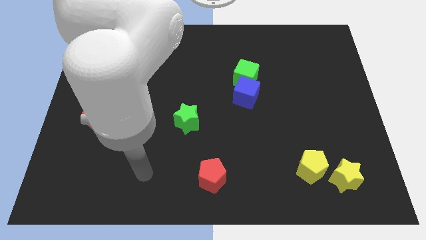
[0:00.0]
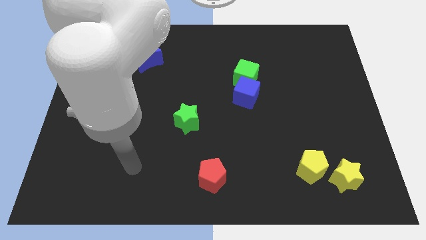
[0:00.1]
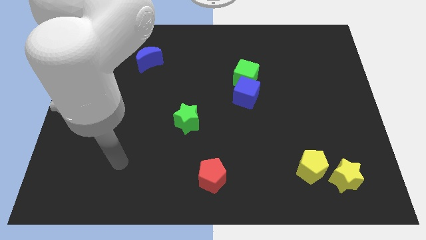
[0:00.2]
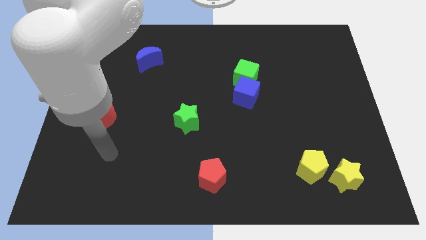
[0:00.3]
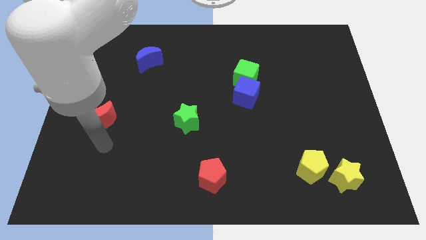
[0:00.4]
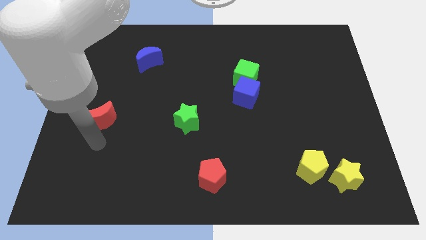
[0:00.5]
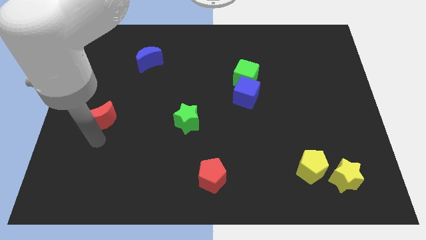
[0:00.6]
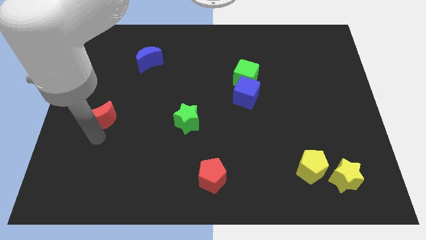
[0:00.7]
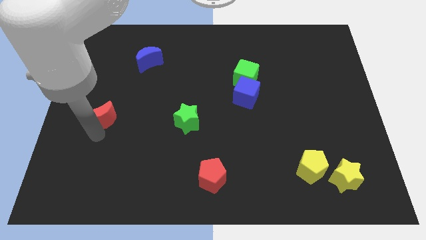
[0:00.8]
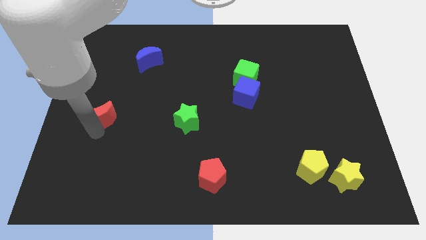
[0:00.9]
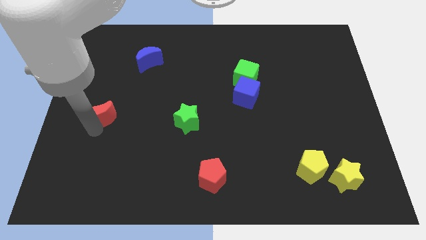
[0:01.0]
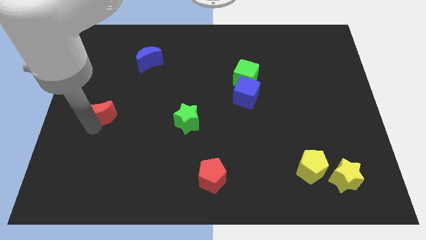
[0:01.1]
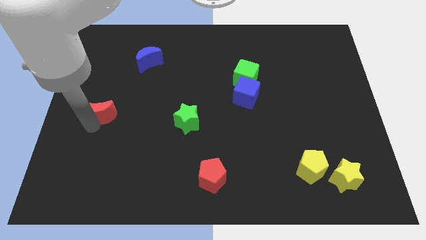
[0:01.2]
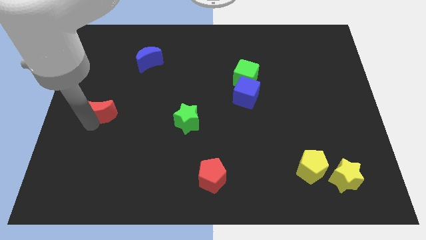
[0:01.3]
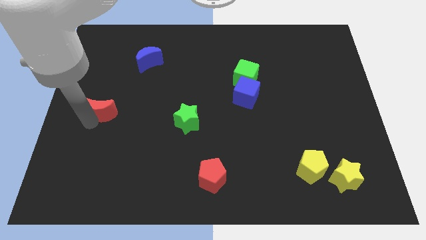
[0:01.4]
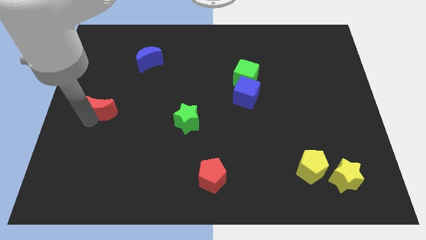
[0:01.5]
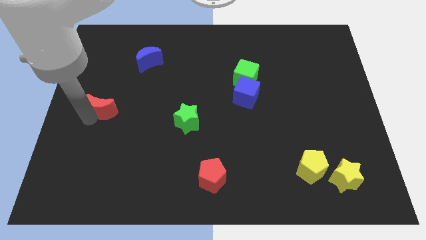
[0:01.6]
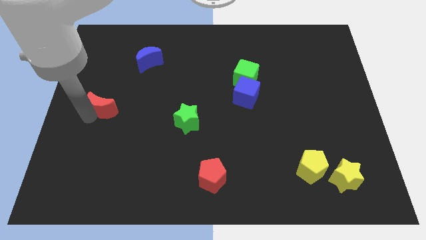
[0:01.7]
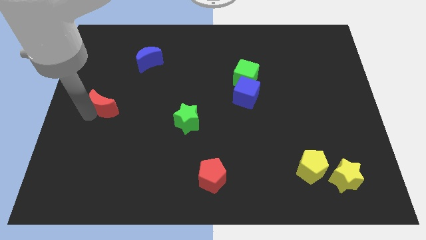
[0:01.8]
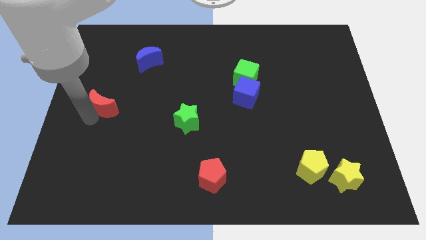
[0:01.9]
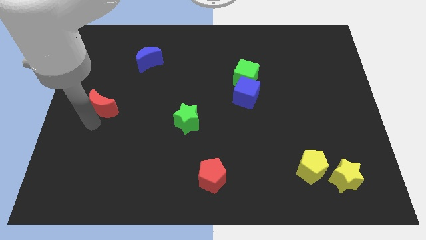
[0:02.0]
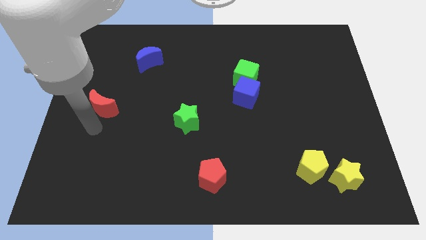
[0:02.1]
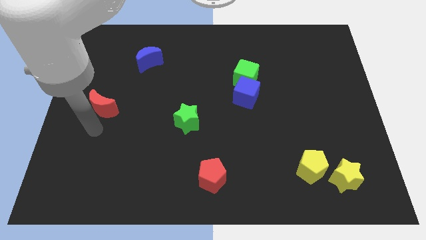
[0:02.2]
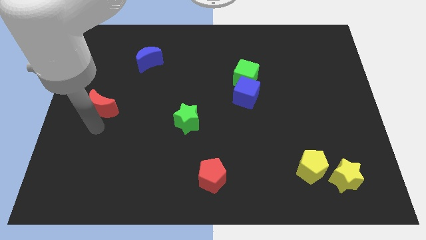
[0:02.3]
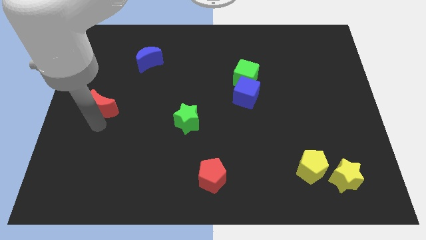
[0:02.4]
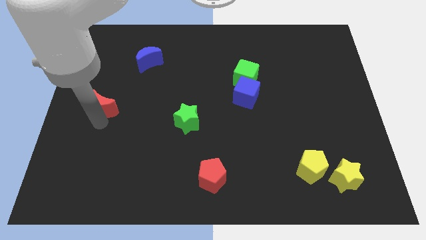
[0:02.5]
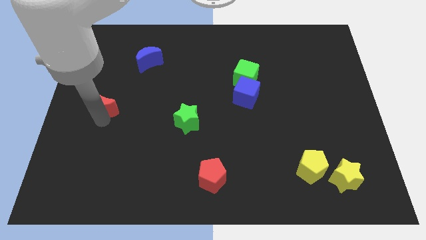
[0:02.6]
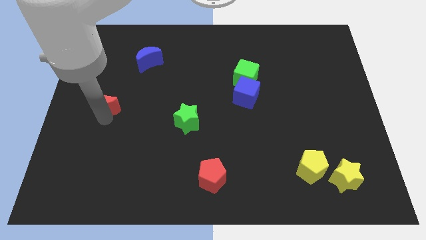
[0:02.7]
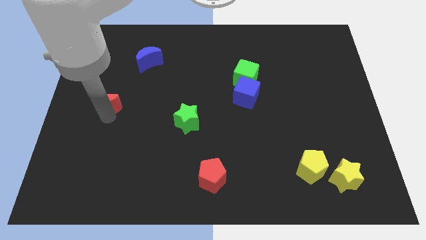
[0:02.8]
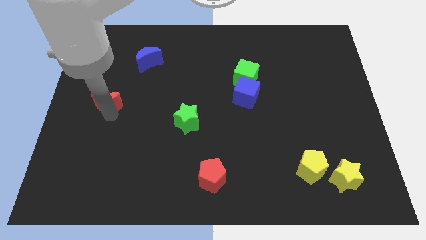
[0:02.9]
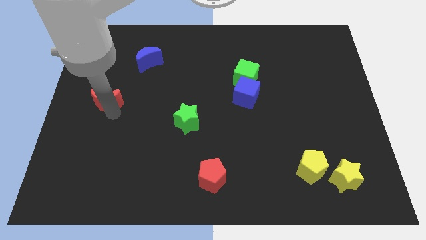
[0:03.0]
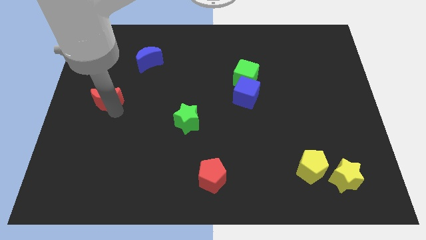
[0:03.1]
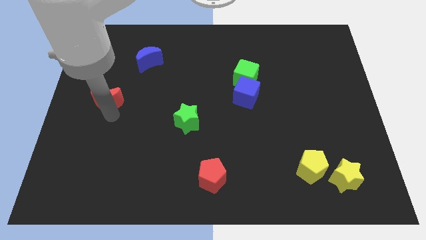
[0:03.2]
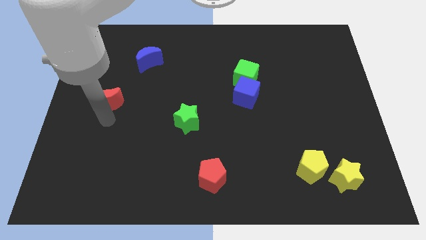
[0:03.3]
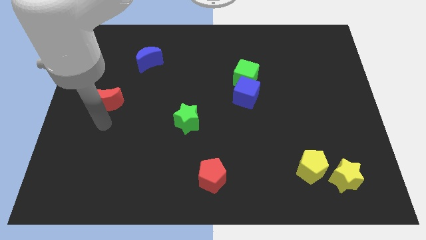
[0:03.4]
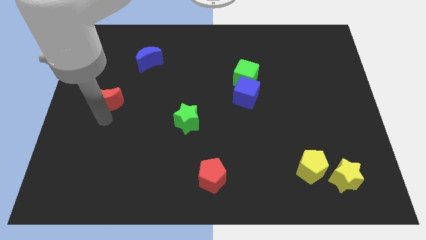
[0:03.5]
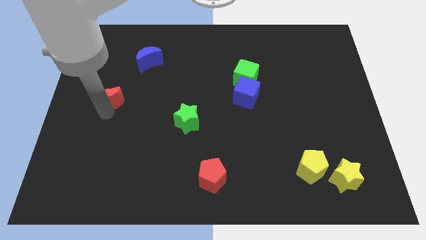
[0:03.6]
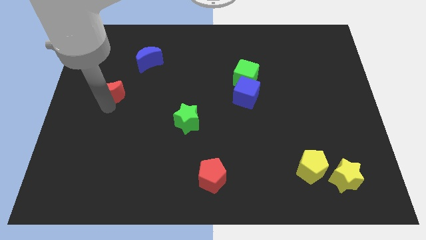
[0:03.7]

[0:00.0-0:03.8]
slide the red moon slightly upwards

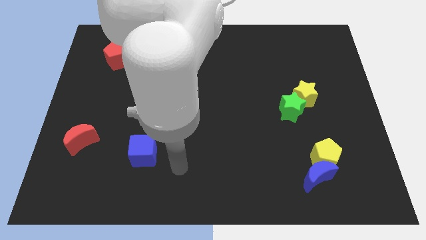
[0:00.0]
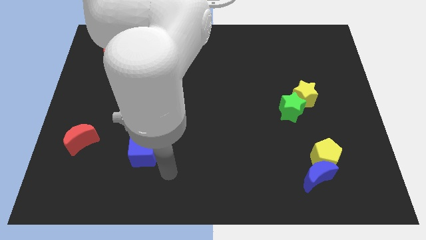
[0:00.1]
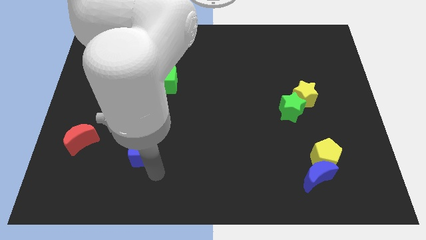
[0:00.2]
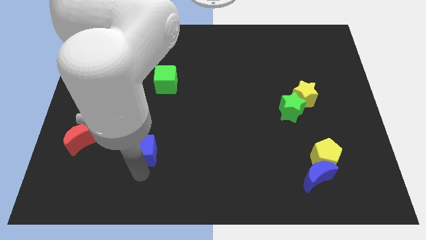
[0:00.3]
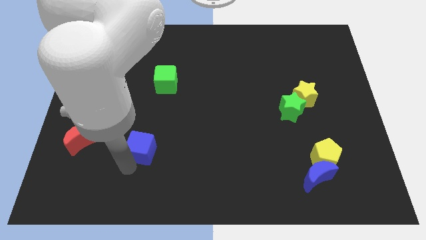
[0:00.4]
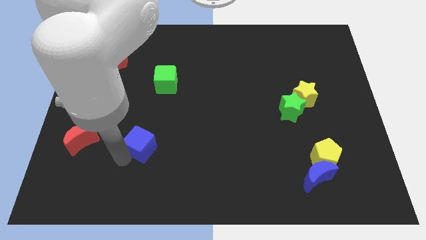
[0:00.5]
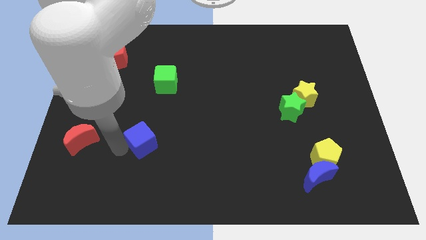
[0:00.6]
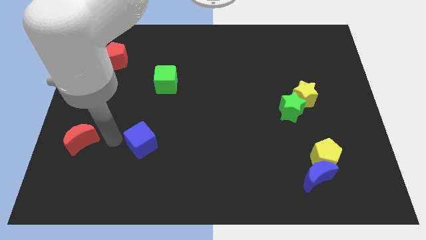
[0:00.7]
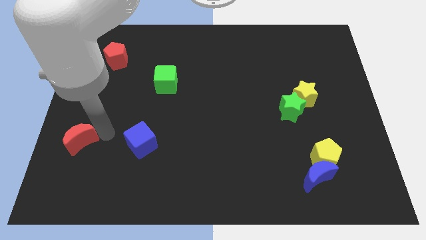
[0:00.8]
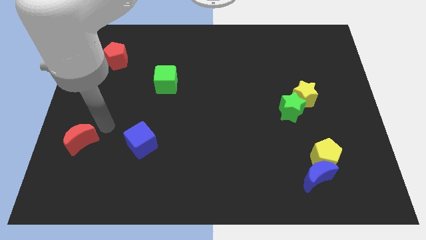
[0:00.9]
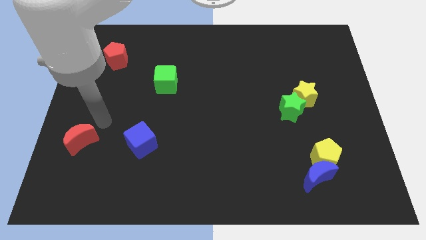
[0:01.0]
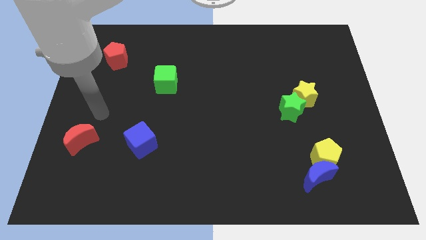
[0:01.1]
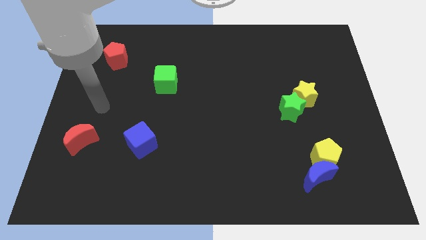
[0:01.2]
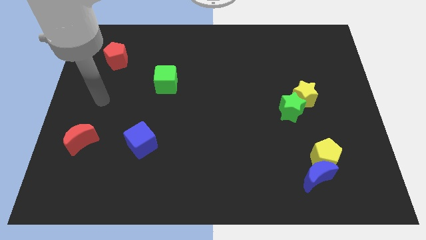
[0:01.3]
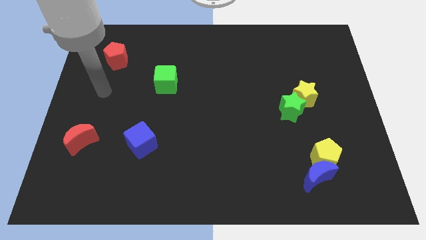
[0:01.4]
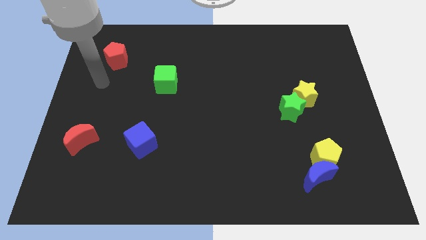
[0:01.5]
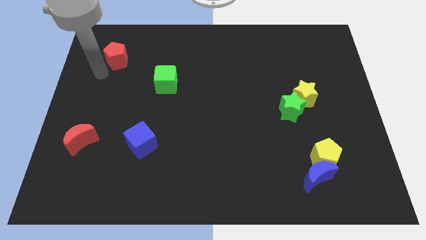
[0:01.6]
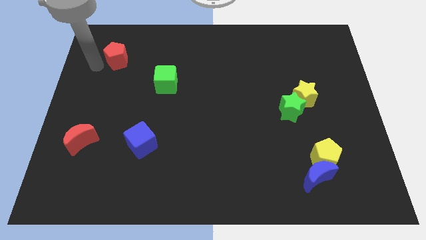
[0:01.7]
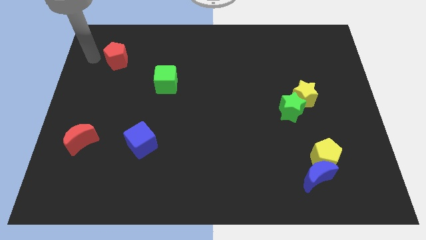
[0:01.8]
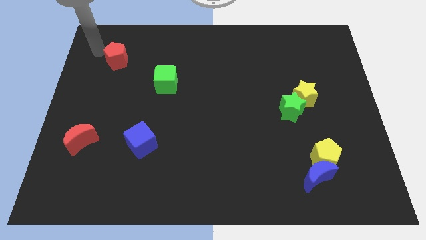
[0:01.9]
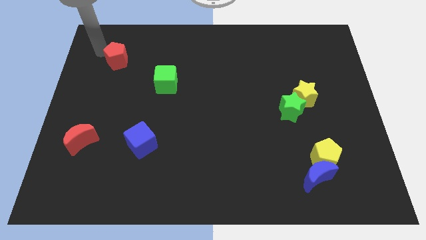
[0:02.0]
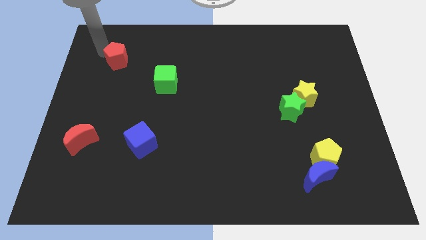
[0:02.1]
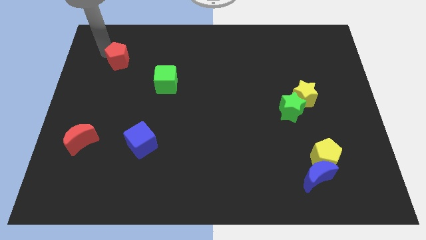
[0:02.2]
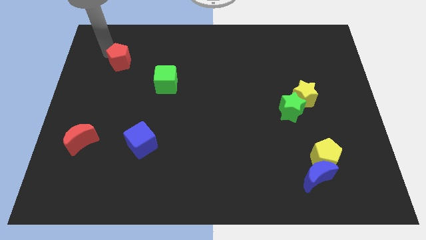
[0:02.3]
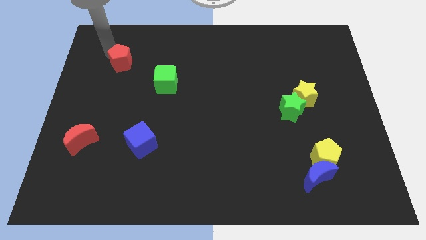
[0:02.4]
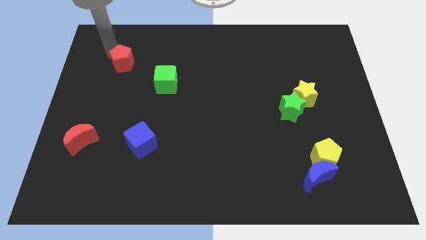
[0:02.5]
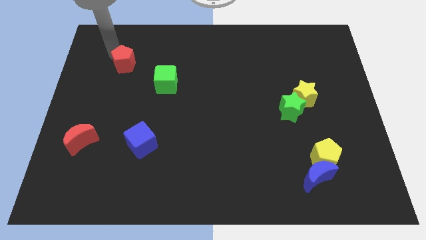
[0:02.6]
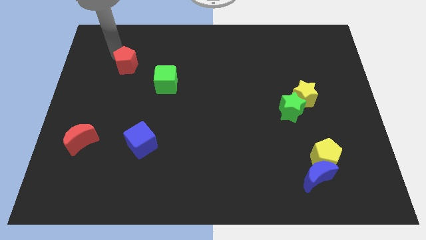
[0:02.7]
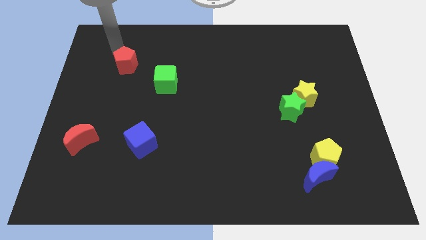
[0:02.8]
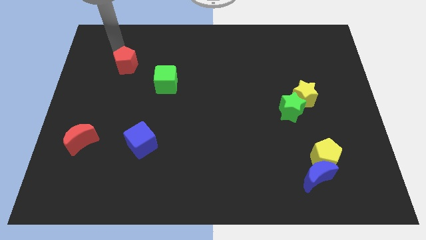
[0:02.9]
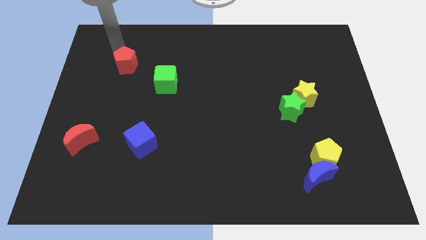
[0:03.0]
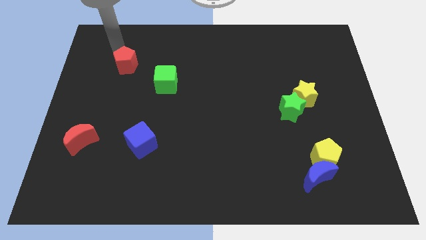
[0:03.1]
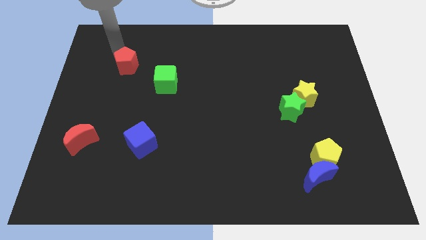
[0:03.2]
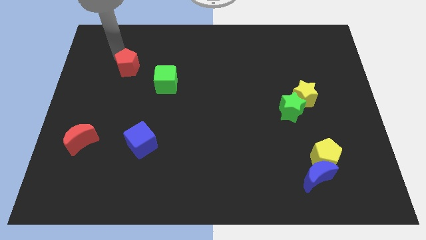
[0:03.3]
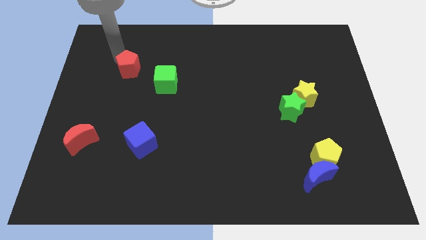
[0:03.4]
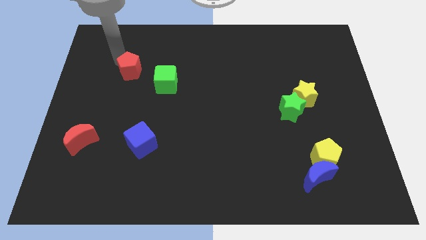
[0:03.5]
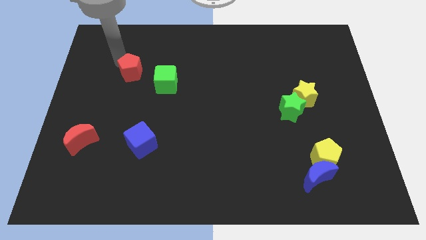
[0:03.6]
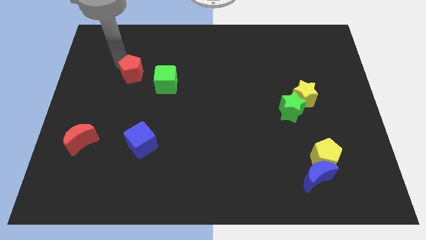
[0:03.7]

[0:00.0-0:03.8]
slide the red pentagon diagonally down and right a bit

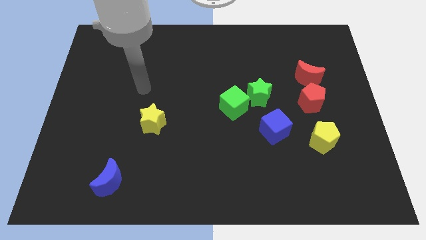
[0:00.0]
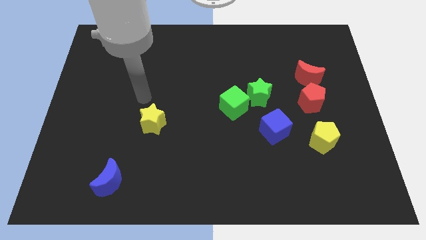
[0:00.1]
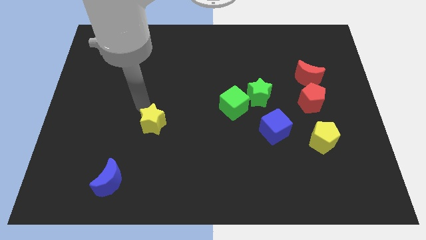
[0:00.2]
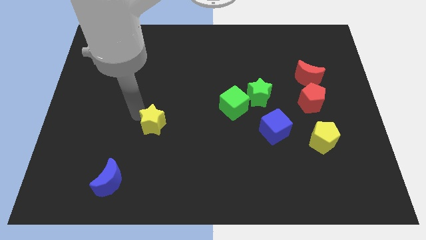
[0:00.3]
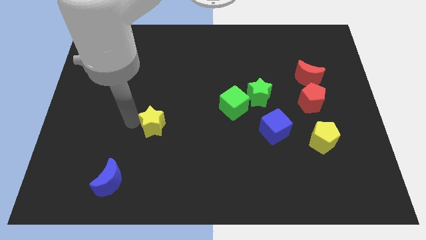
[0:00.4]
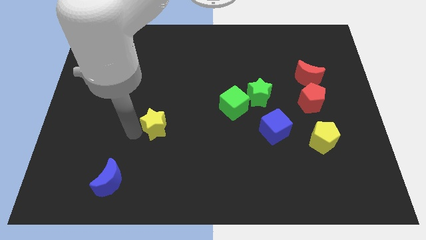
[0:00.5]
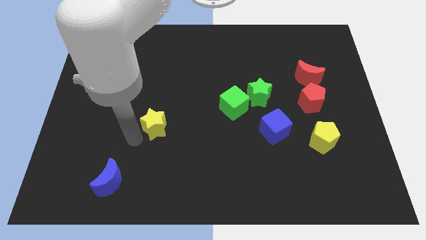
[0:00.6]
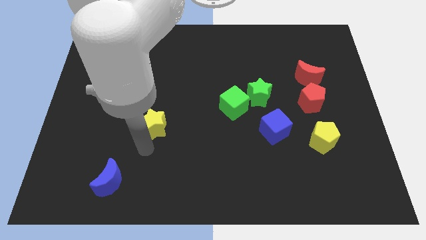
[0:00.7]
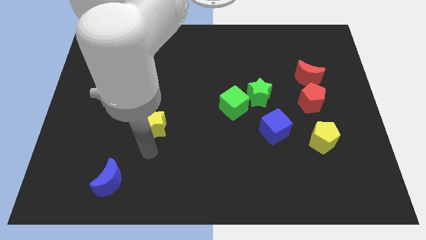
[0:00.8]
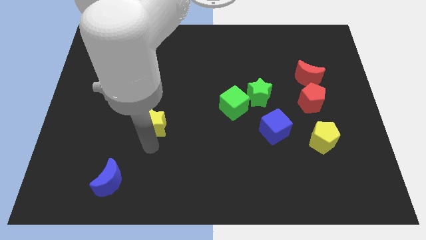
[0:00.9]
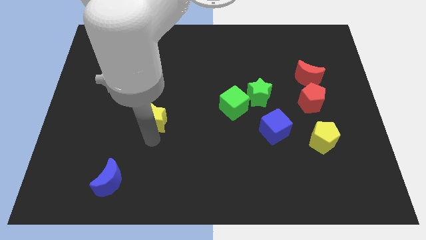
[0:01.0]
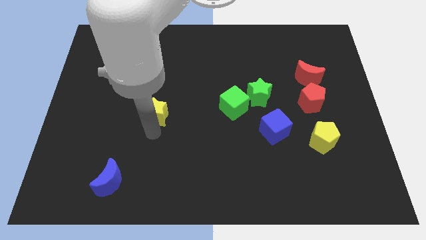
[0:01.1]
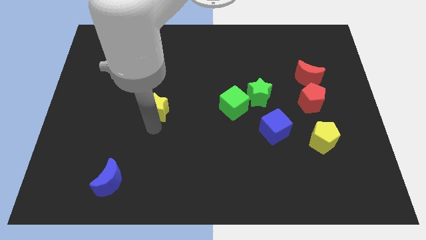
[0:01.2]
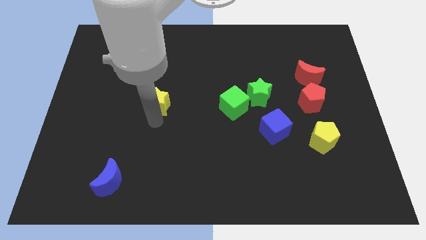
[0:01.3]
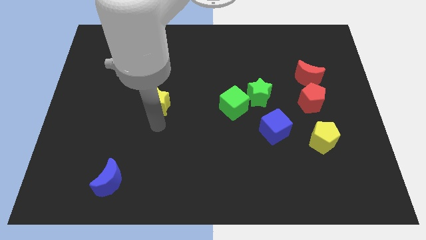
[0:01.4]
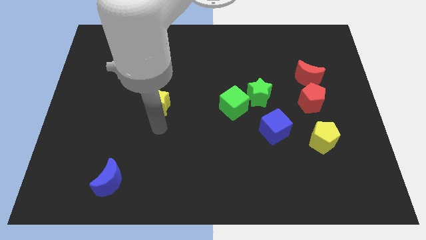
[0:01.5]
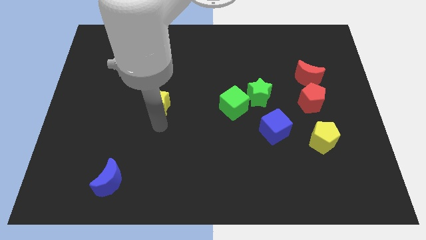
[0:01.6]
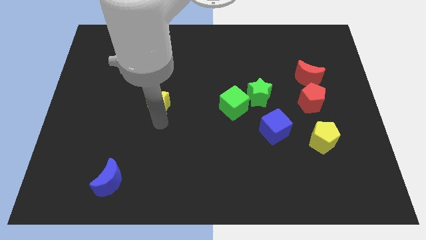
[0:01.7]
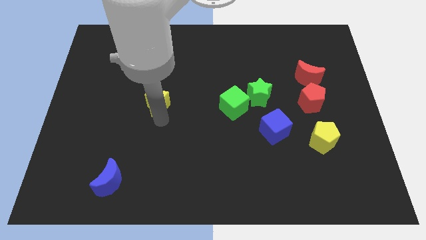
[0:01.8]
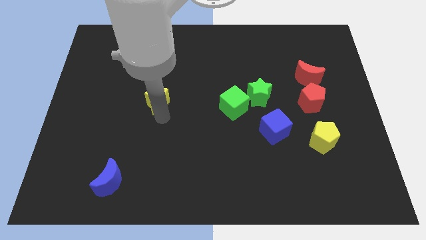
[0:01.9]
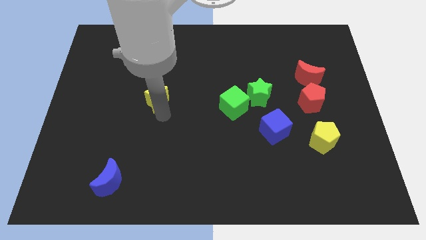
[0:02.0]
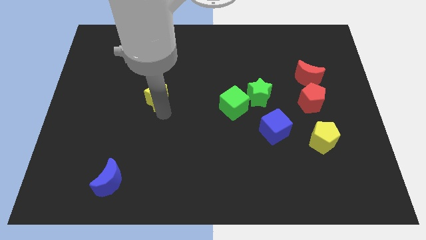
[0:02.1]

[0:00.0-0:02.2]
move the yellow star a little upwards
